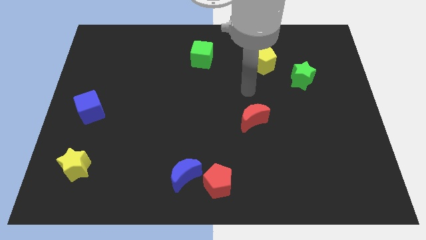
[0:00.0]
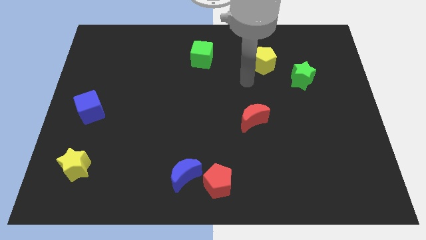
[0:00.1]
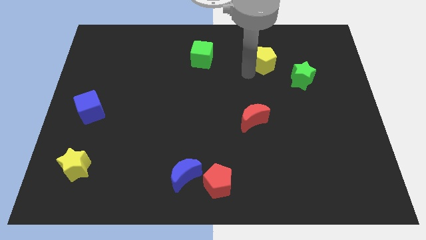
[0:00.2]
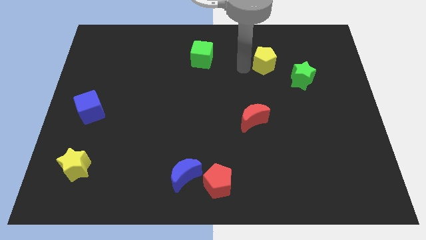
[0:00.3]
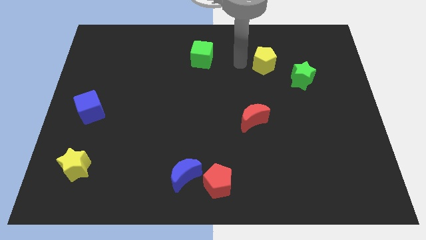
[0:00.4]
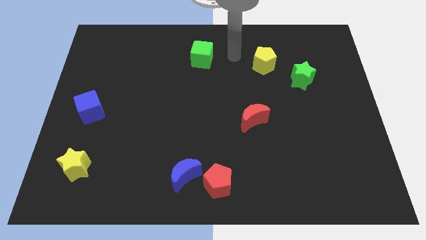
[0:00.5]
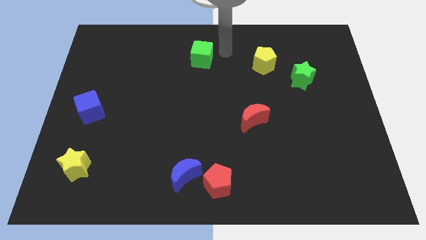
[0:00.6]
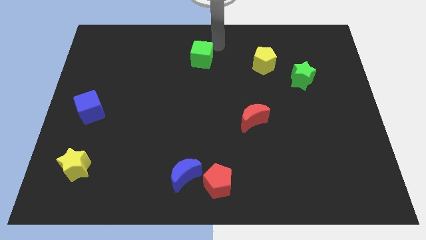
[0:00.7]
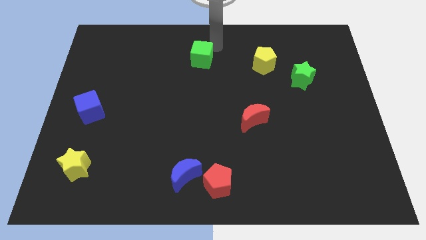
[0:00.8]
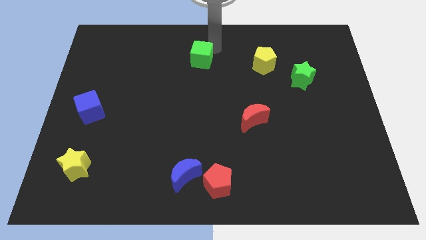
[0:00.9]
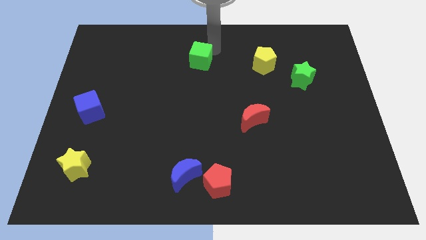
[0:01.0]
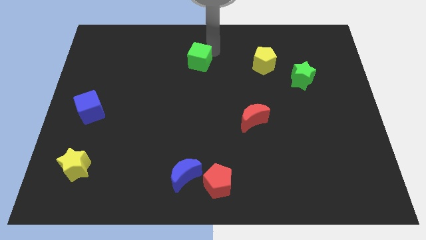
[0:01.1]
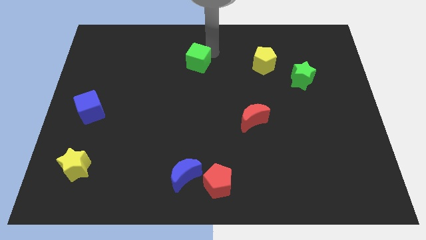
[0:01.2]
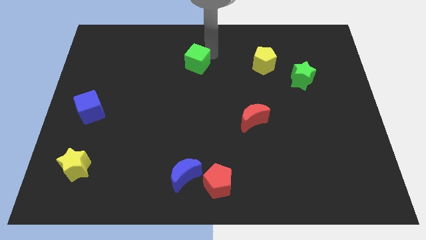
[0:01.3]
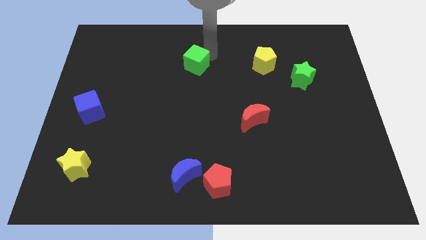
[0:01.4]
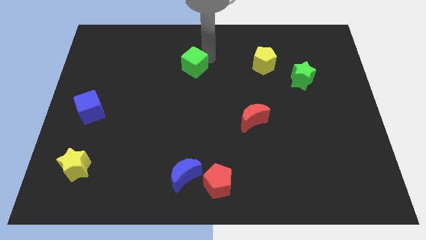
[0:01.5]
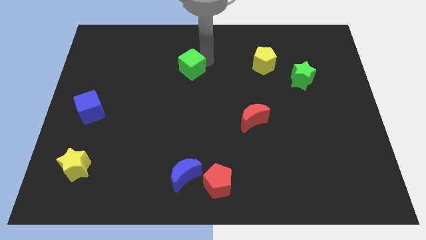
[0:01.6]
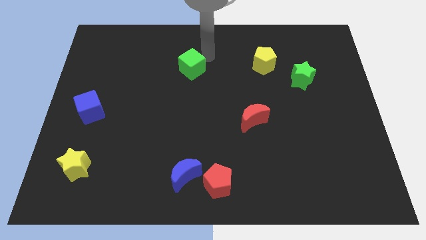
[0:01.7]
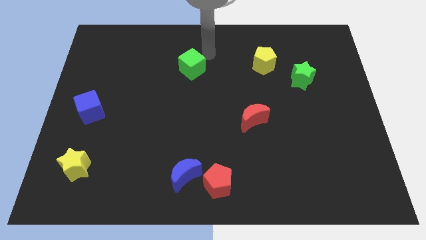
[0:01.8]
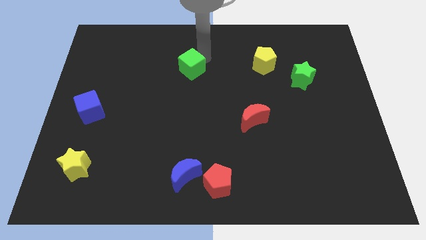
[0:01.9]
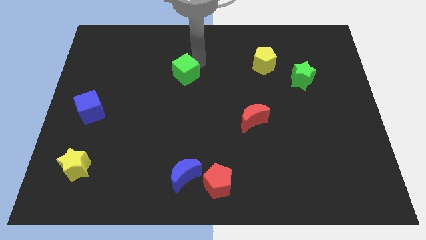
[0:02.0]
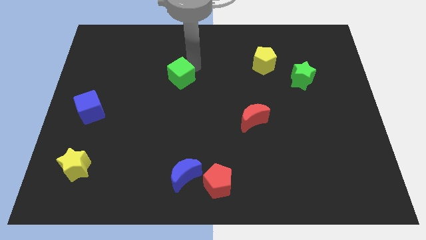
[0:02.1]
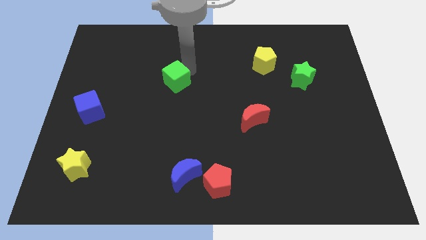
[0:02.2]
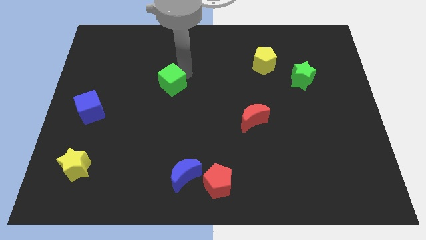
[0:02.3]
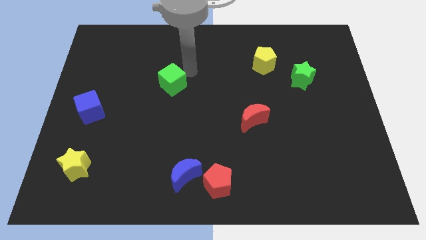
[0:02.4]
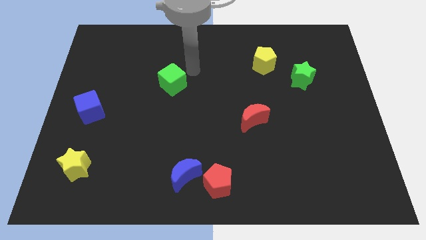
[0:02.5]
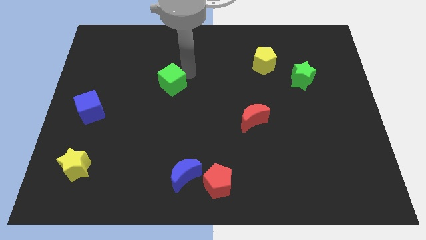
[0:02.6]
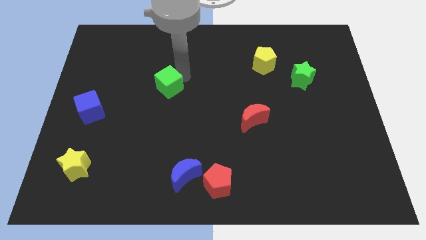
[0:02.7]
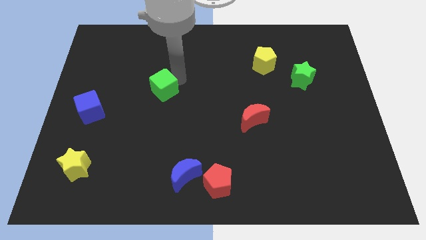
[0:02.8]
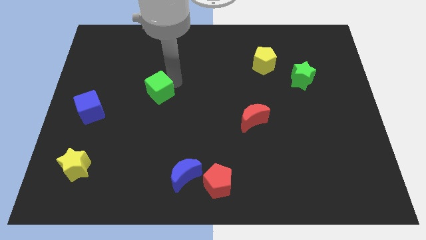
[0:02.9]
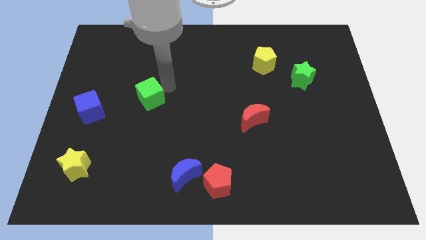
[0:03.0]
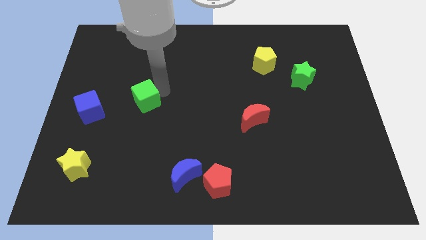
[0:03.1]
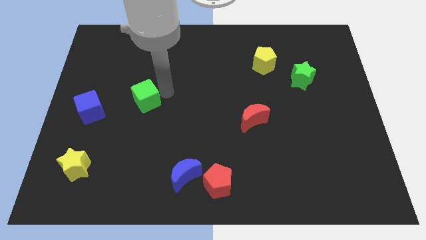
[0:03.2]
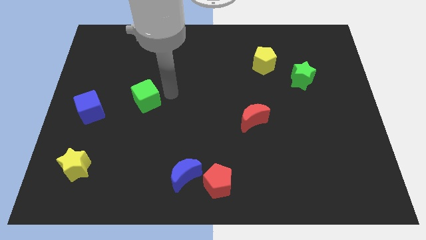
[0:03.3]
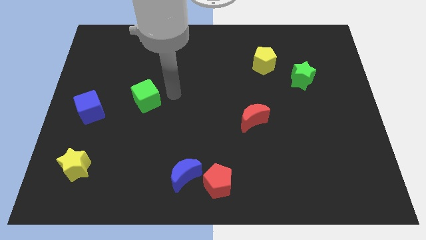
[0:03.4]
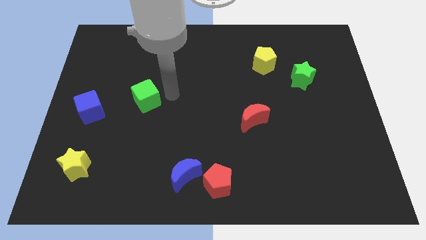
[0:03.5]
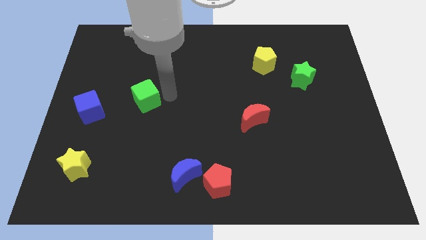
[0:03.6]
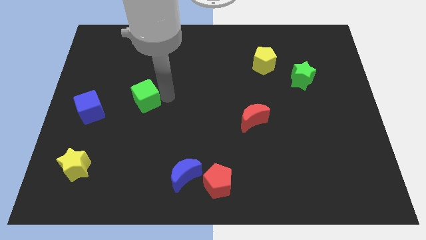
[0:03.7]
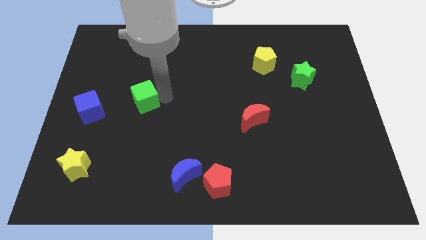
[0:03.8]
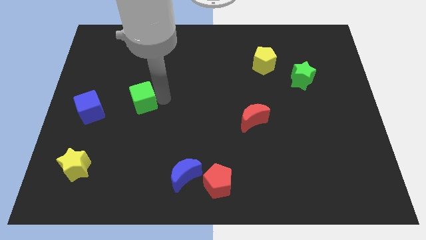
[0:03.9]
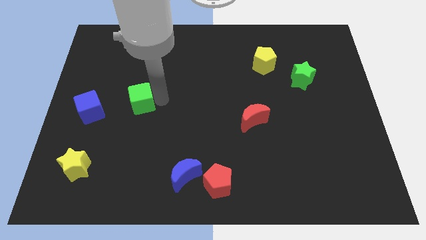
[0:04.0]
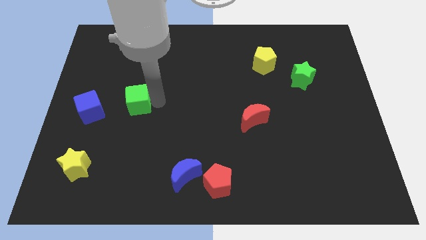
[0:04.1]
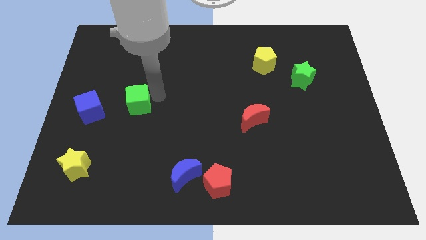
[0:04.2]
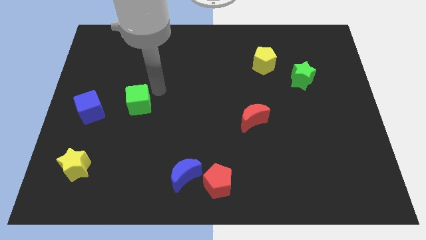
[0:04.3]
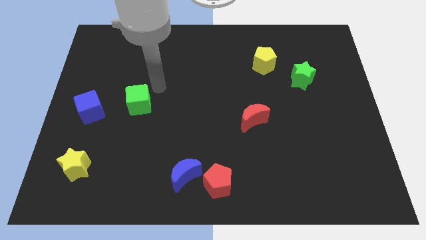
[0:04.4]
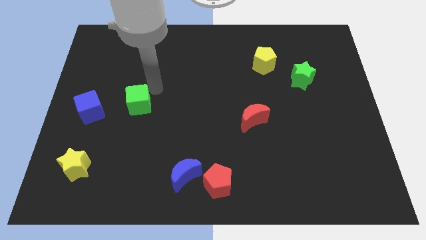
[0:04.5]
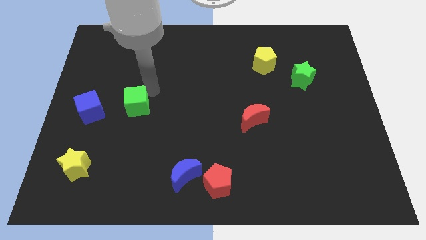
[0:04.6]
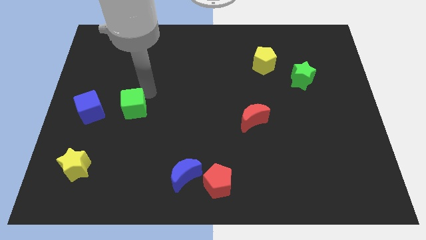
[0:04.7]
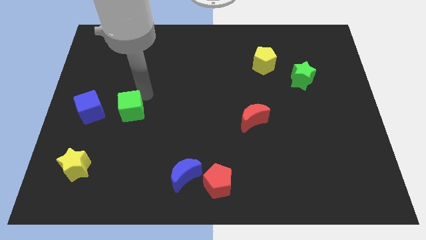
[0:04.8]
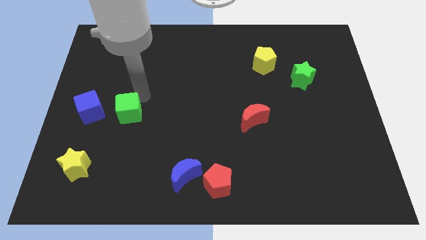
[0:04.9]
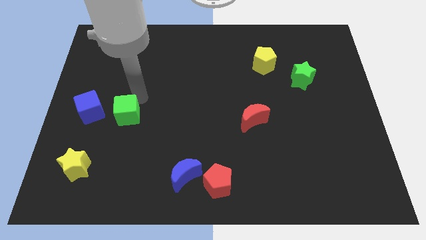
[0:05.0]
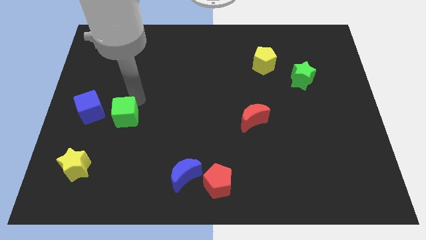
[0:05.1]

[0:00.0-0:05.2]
move the green cube to the bottom right of the blue cube

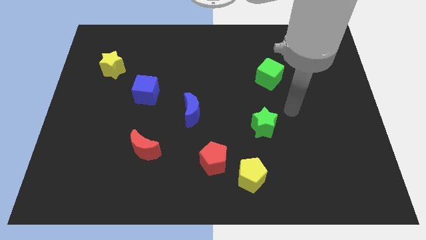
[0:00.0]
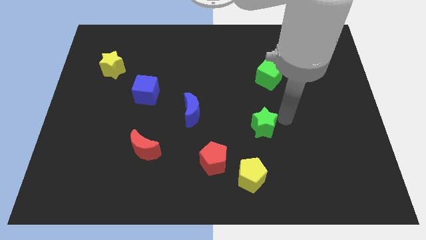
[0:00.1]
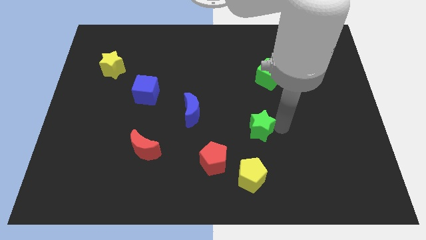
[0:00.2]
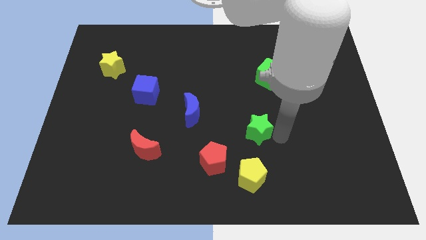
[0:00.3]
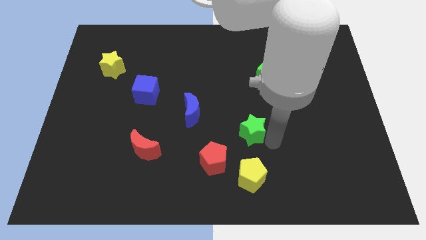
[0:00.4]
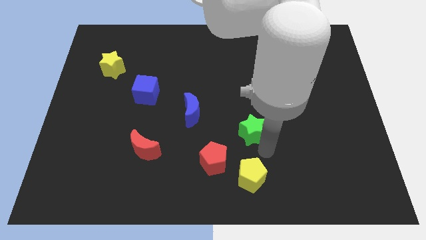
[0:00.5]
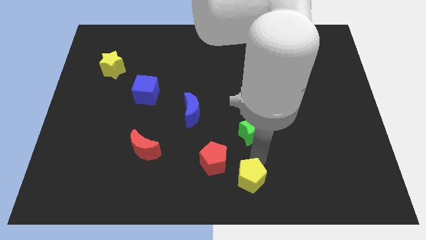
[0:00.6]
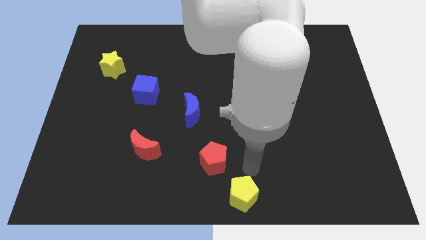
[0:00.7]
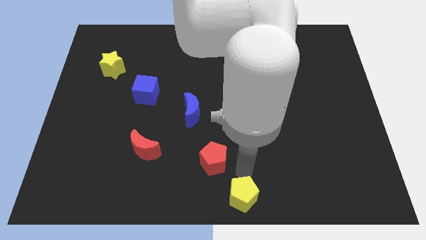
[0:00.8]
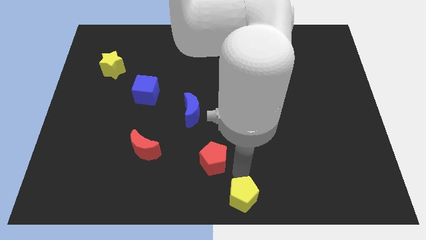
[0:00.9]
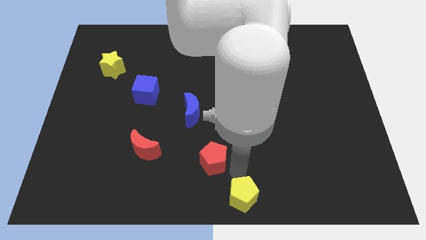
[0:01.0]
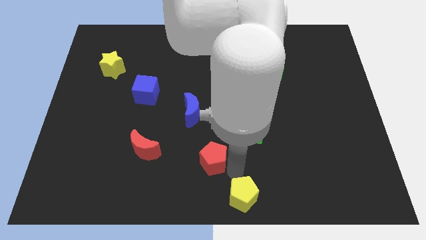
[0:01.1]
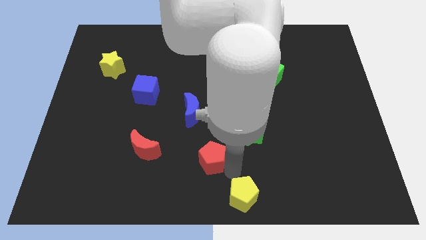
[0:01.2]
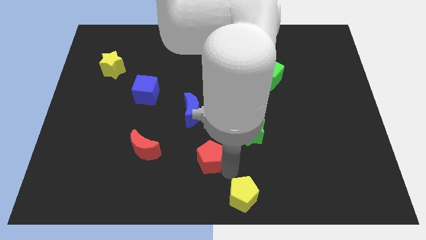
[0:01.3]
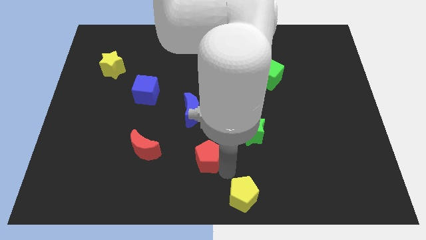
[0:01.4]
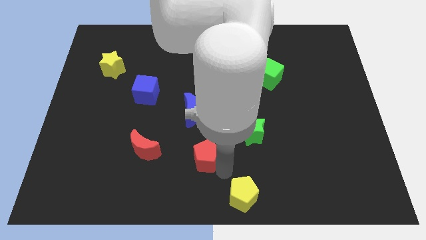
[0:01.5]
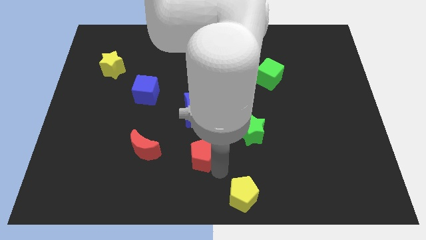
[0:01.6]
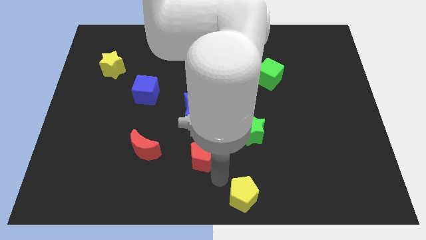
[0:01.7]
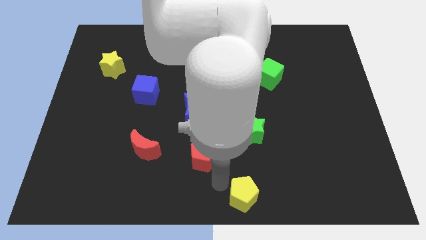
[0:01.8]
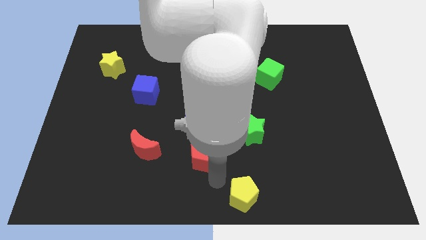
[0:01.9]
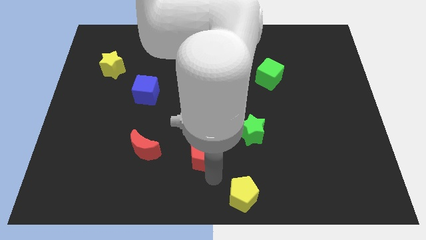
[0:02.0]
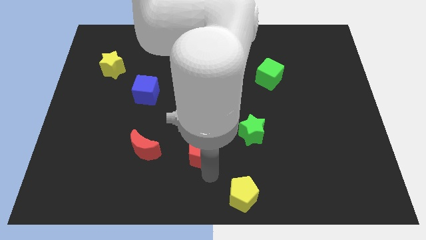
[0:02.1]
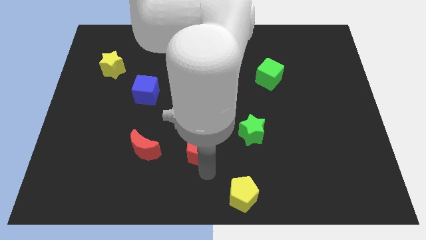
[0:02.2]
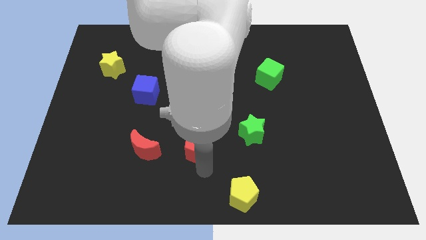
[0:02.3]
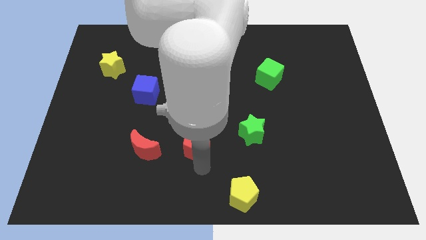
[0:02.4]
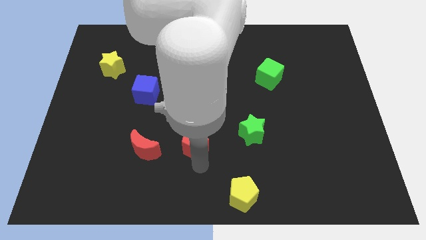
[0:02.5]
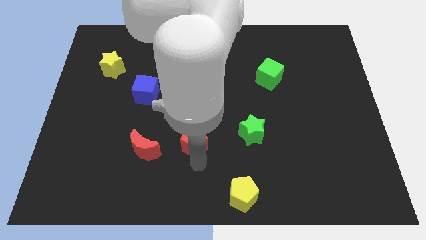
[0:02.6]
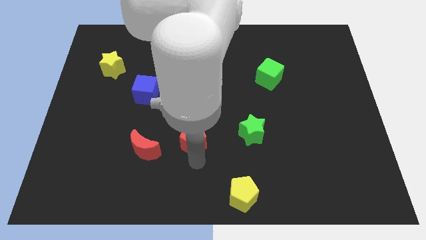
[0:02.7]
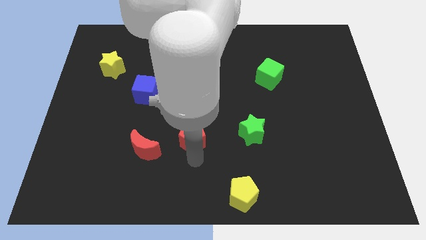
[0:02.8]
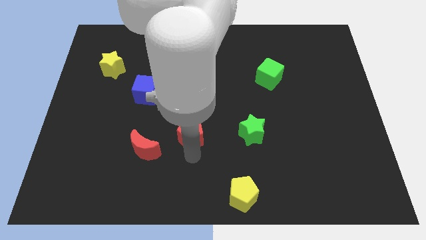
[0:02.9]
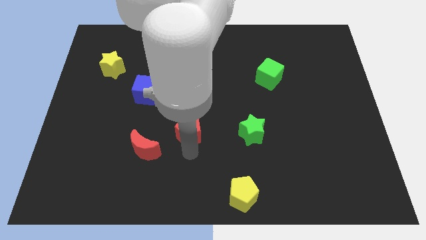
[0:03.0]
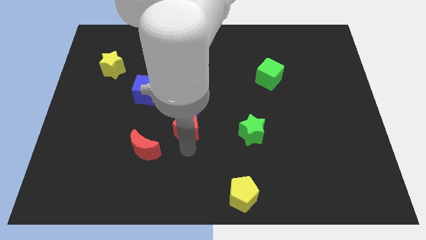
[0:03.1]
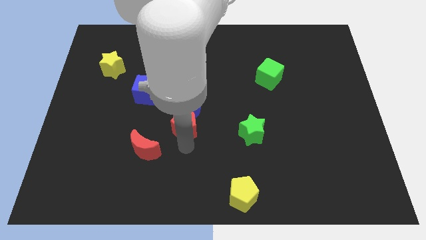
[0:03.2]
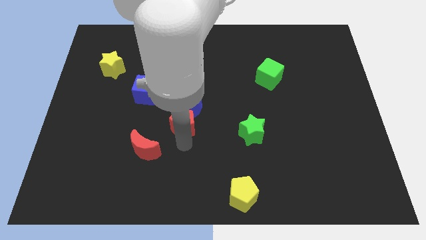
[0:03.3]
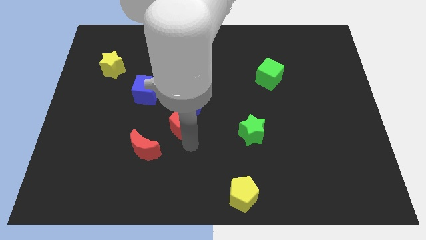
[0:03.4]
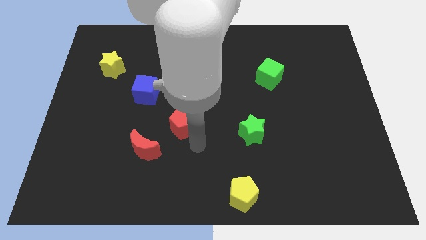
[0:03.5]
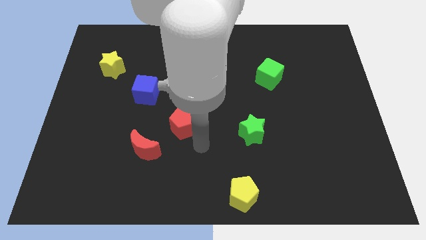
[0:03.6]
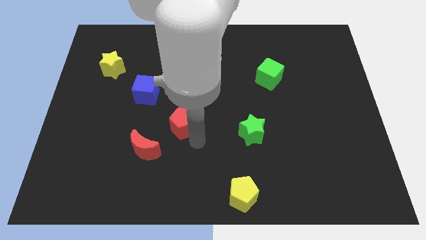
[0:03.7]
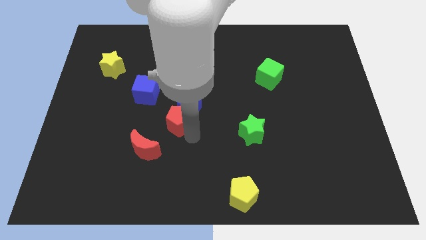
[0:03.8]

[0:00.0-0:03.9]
push the red pentagon to the bottom right side of the blue cube
